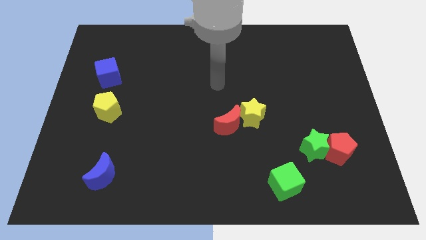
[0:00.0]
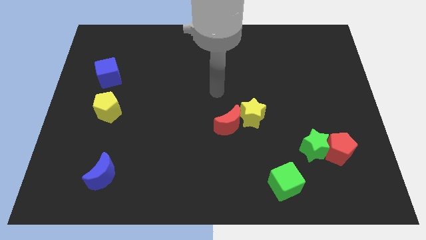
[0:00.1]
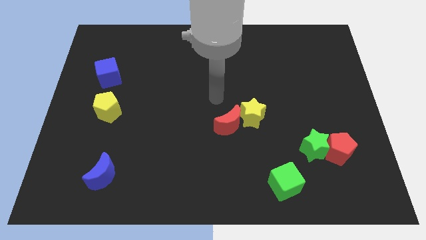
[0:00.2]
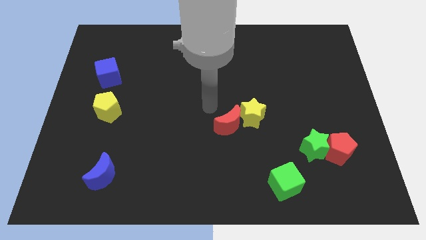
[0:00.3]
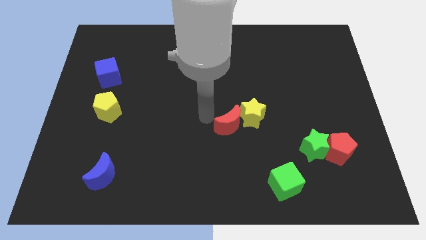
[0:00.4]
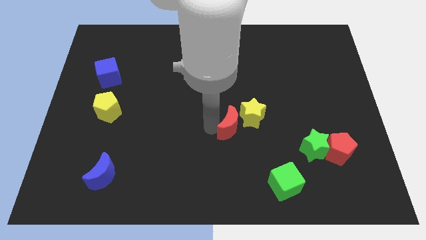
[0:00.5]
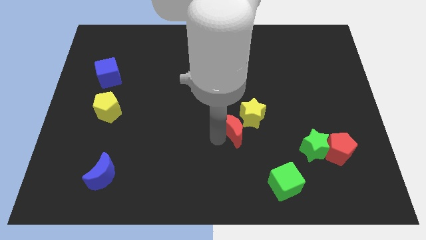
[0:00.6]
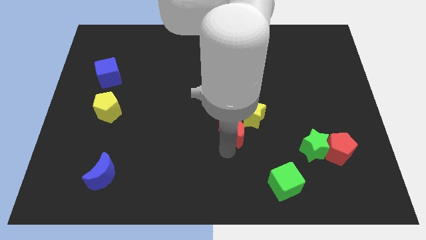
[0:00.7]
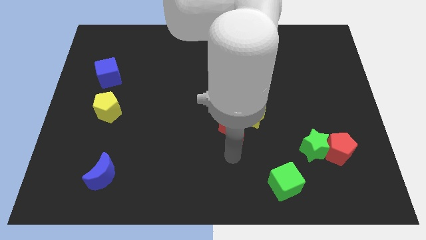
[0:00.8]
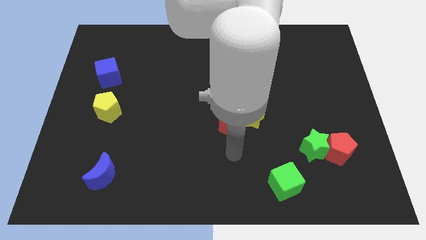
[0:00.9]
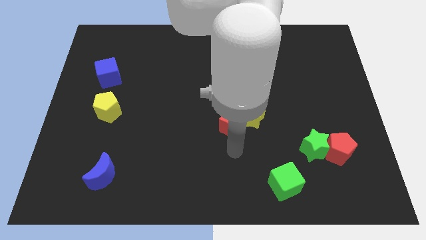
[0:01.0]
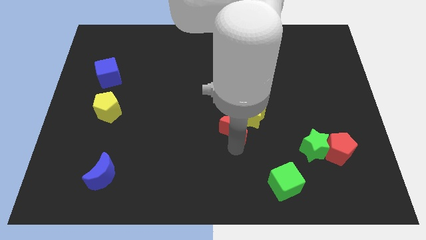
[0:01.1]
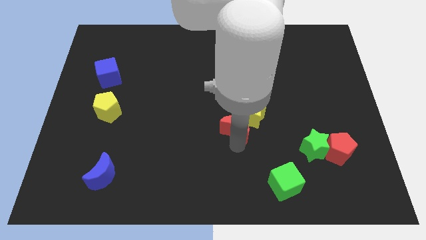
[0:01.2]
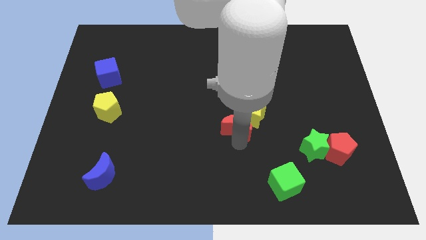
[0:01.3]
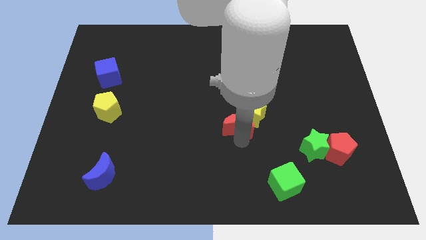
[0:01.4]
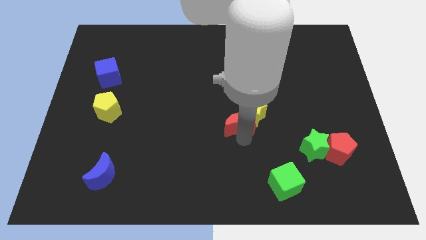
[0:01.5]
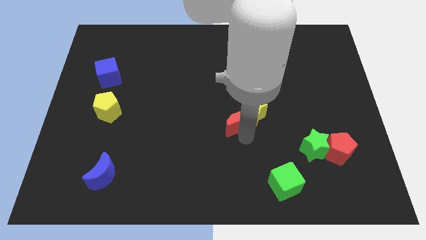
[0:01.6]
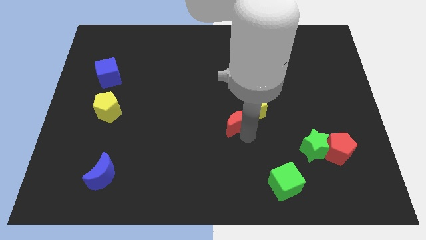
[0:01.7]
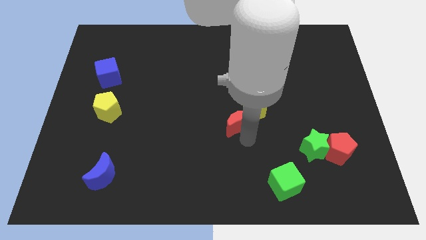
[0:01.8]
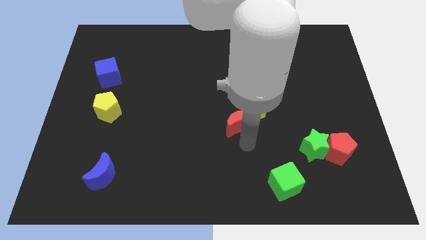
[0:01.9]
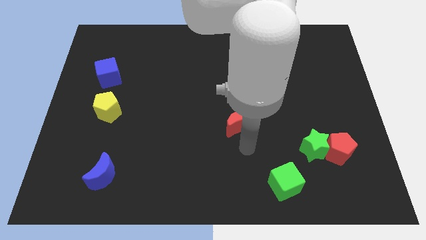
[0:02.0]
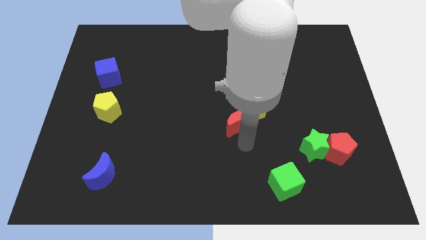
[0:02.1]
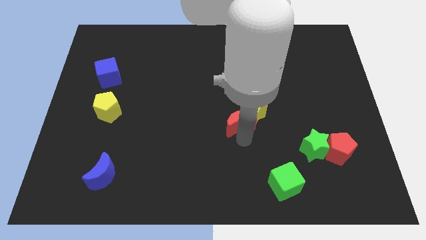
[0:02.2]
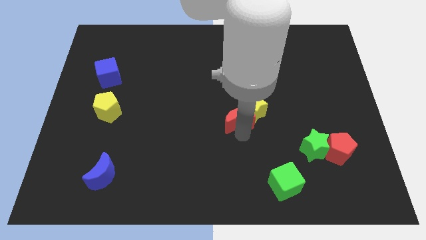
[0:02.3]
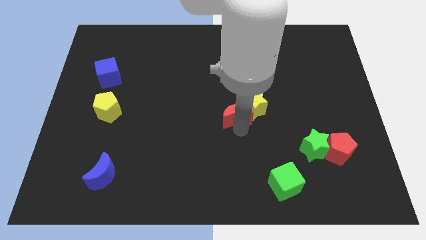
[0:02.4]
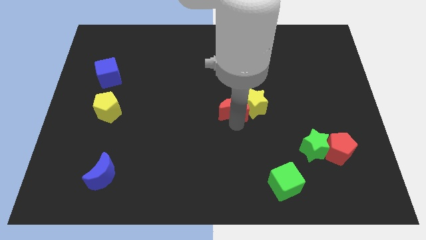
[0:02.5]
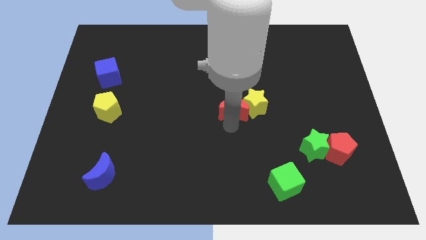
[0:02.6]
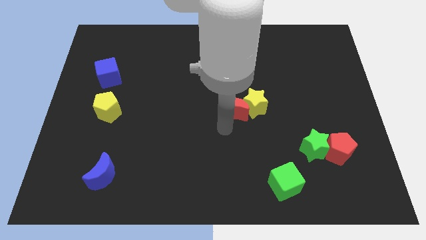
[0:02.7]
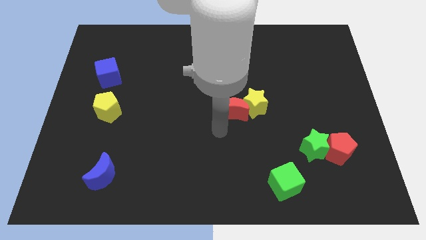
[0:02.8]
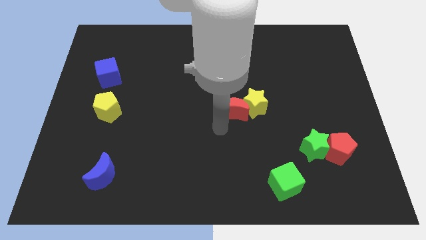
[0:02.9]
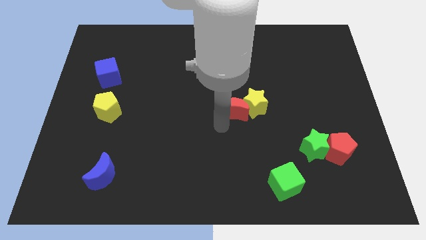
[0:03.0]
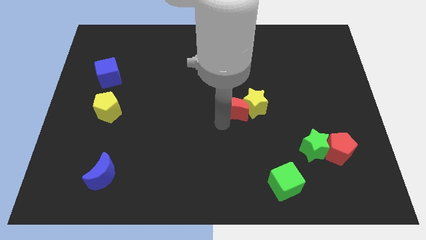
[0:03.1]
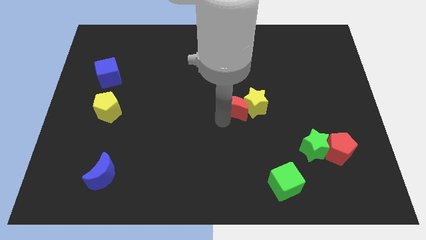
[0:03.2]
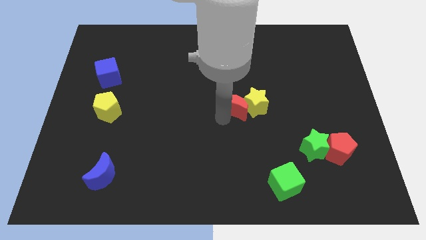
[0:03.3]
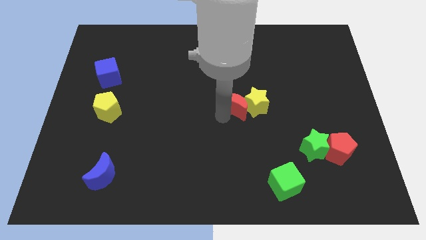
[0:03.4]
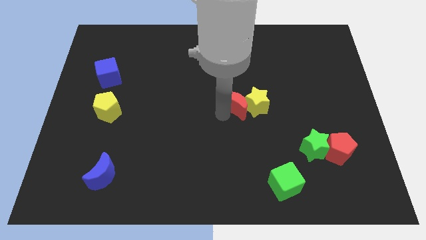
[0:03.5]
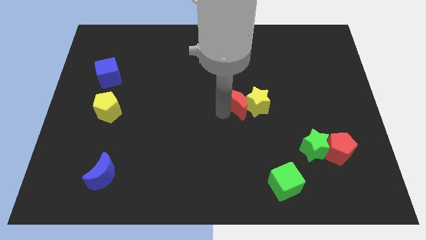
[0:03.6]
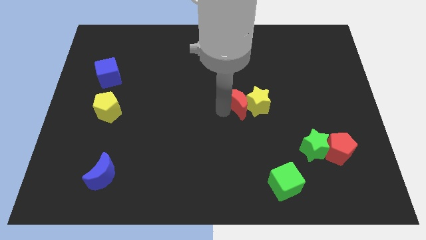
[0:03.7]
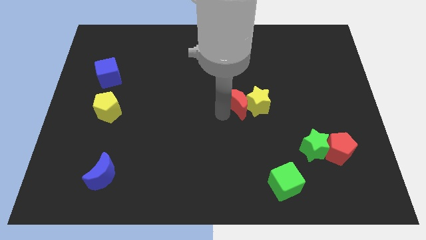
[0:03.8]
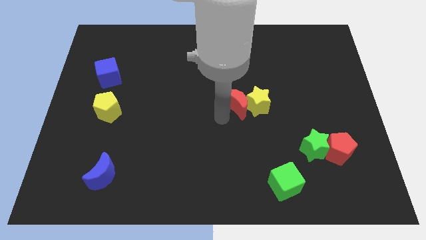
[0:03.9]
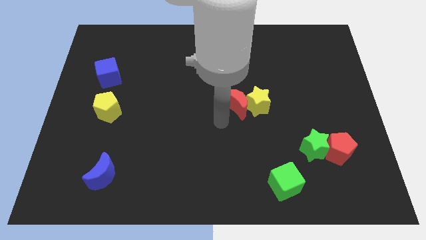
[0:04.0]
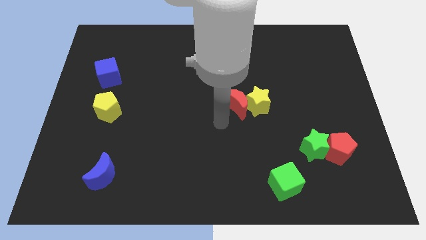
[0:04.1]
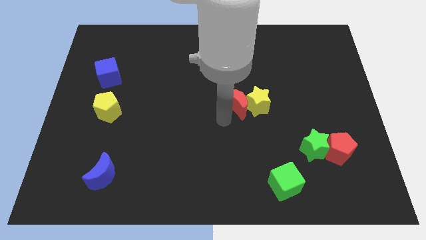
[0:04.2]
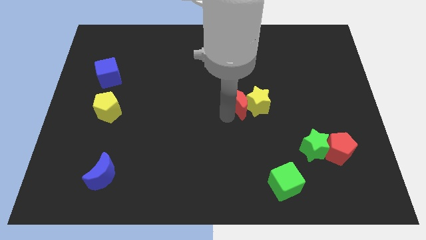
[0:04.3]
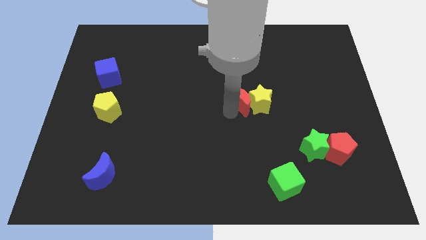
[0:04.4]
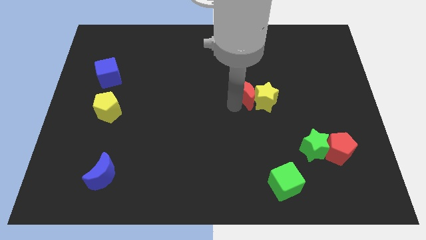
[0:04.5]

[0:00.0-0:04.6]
slightly move the red moon diagonally up and to the right

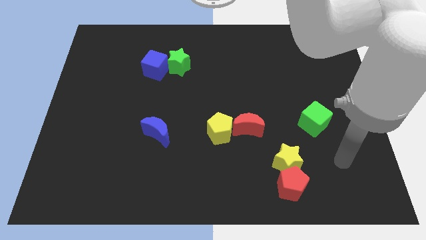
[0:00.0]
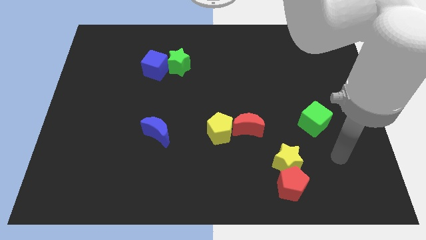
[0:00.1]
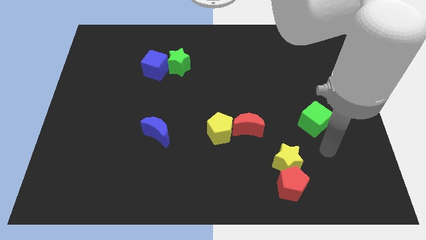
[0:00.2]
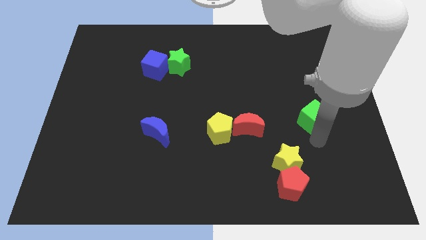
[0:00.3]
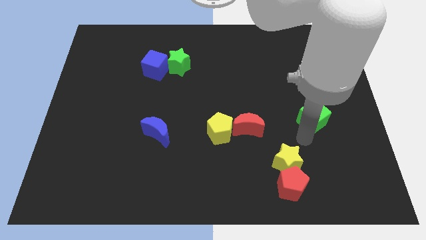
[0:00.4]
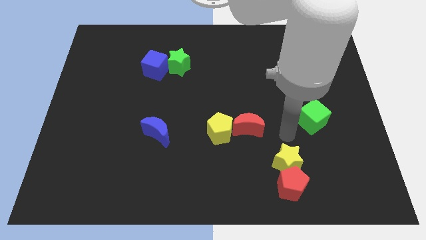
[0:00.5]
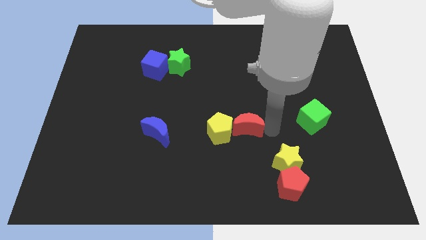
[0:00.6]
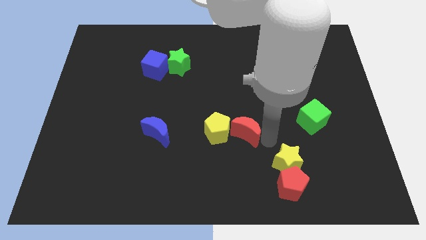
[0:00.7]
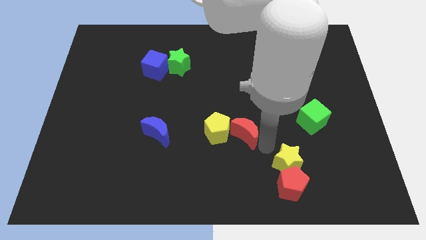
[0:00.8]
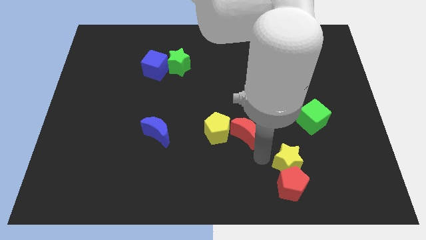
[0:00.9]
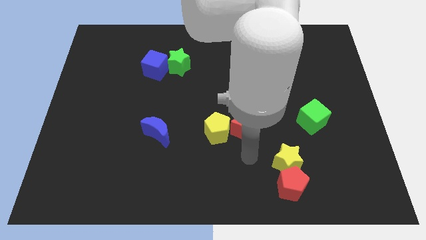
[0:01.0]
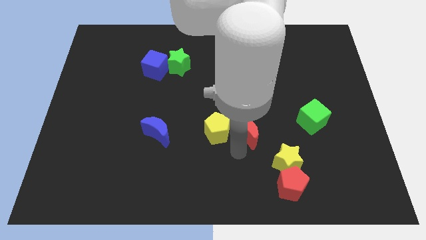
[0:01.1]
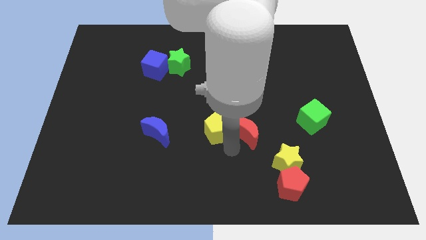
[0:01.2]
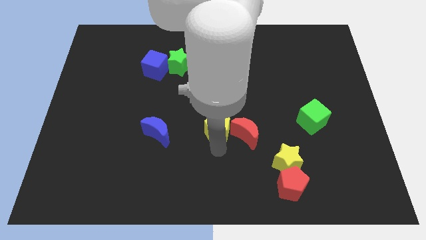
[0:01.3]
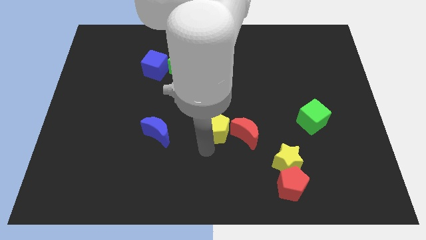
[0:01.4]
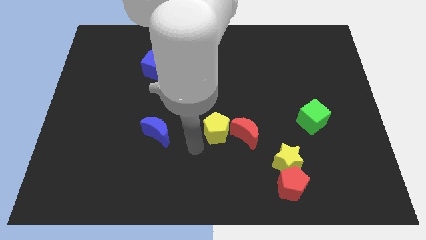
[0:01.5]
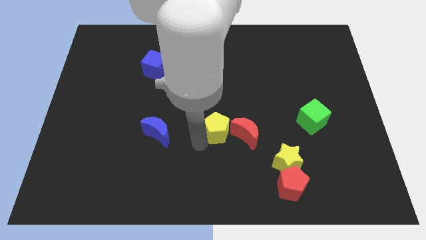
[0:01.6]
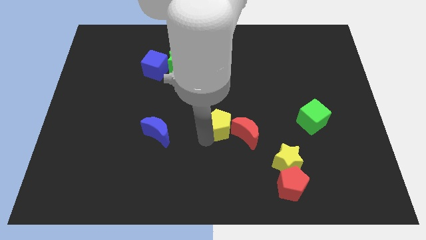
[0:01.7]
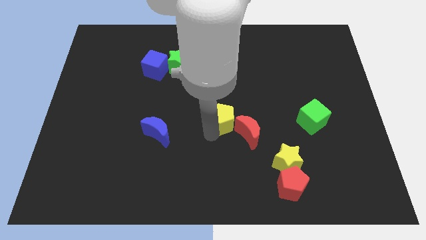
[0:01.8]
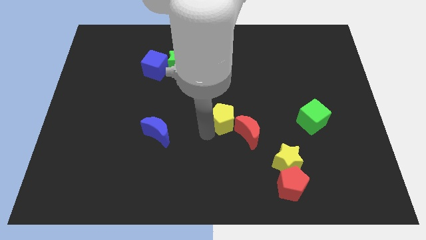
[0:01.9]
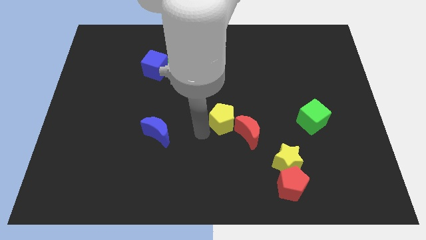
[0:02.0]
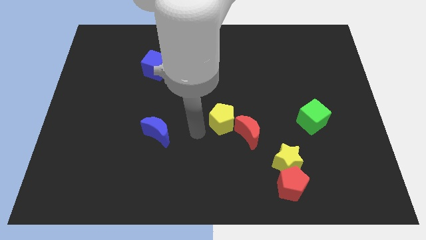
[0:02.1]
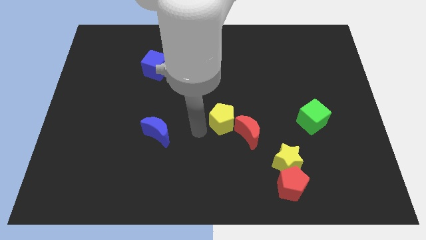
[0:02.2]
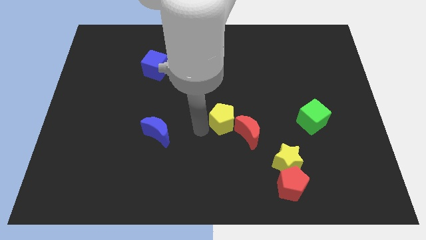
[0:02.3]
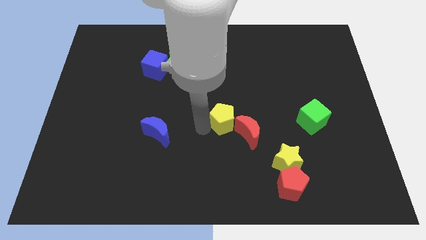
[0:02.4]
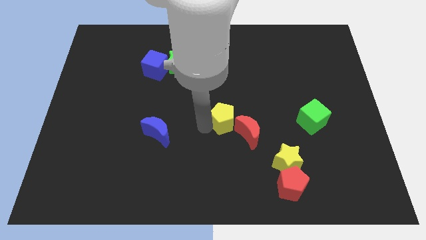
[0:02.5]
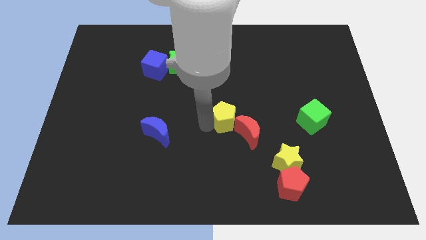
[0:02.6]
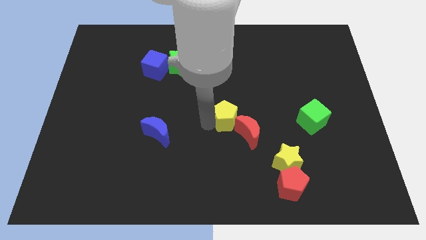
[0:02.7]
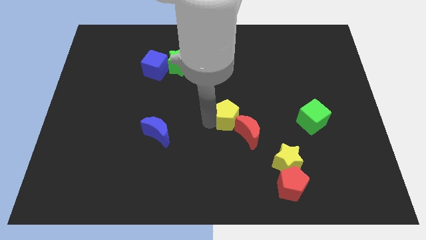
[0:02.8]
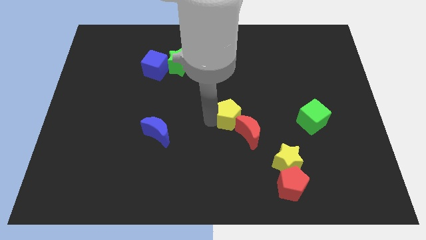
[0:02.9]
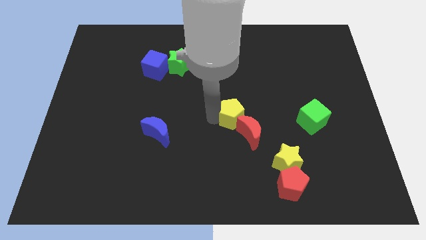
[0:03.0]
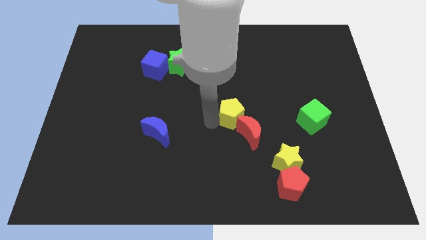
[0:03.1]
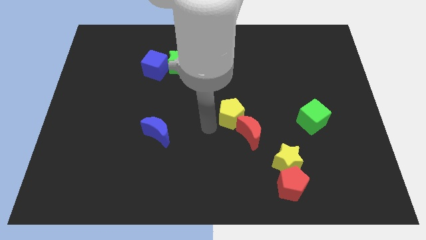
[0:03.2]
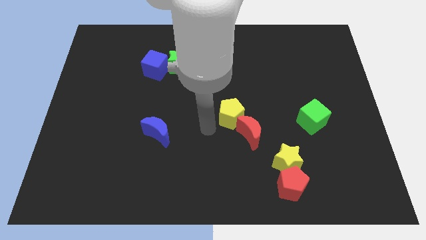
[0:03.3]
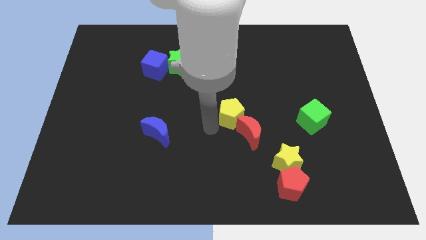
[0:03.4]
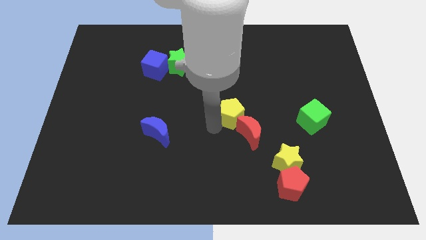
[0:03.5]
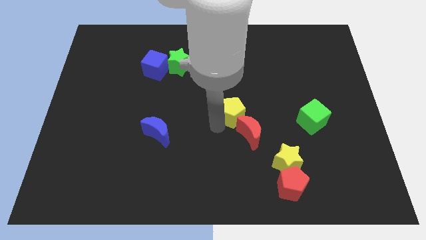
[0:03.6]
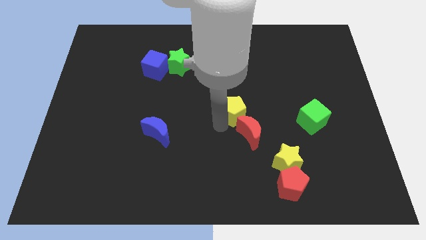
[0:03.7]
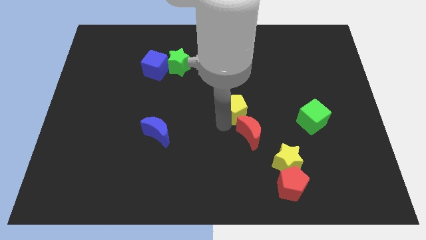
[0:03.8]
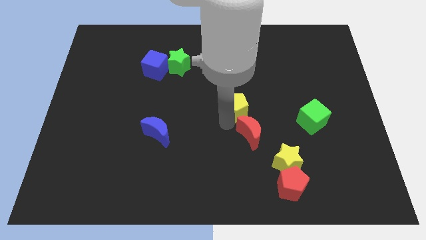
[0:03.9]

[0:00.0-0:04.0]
move the yellow pentagon slightly up and right
